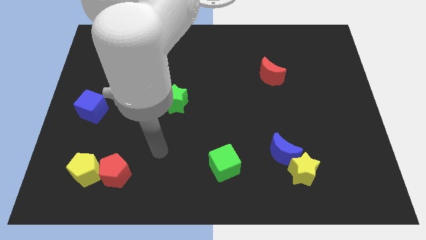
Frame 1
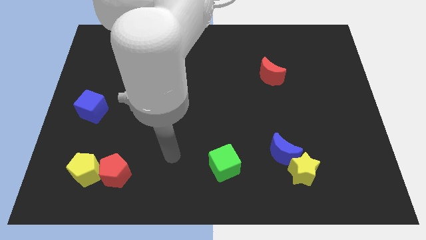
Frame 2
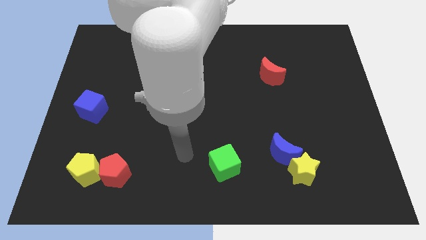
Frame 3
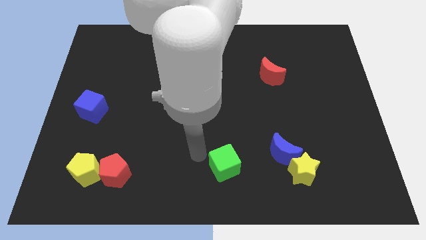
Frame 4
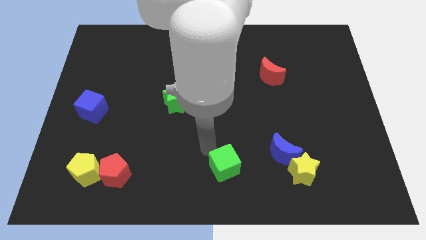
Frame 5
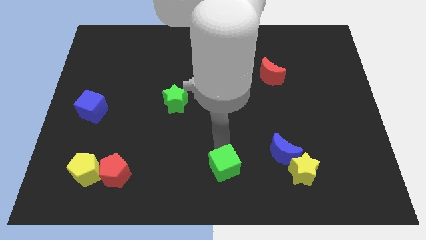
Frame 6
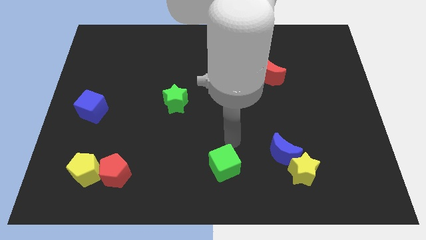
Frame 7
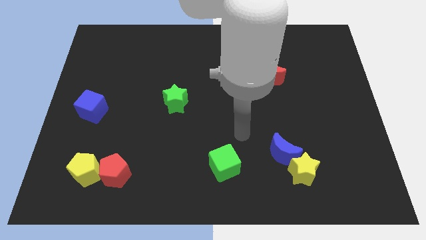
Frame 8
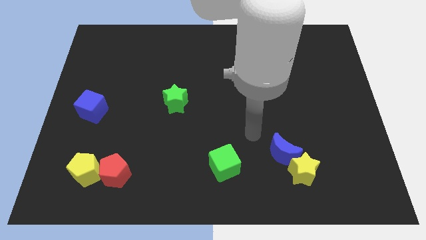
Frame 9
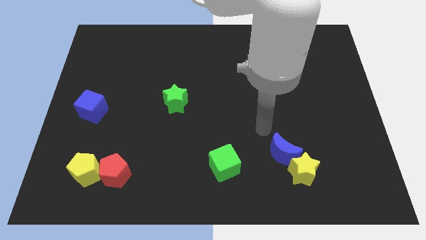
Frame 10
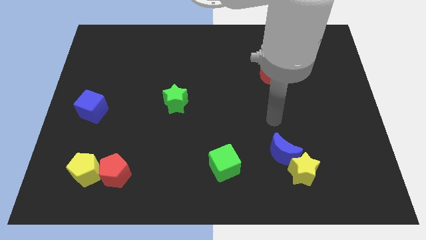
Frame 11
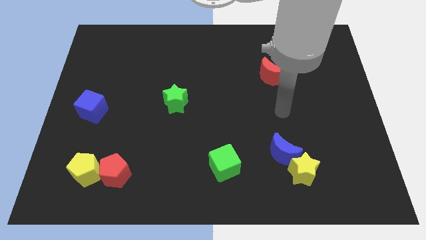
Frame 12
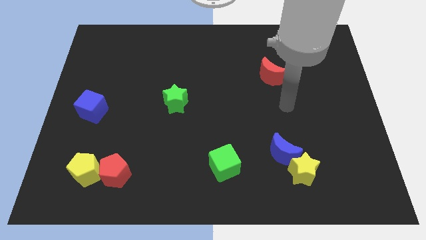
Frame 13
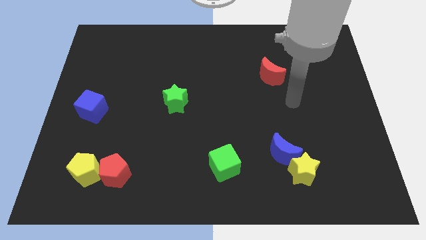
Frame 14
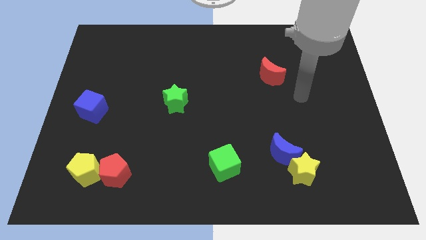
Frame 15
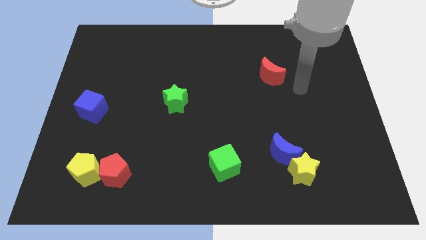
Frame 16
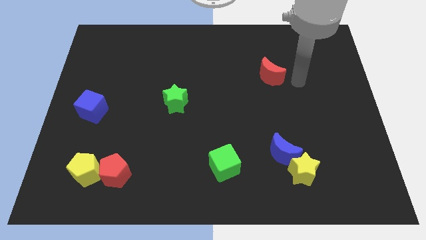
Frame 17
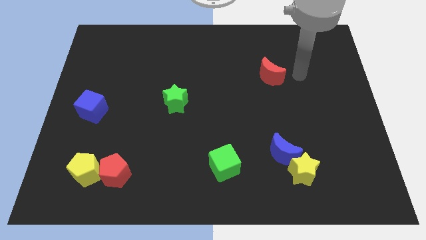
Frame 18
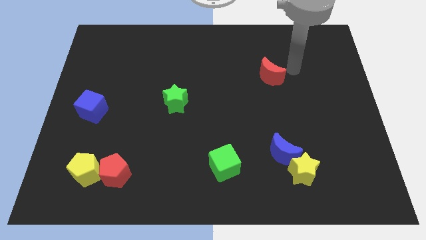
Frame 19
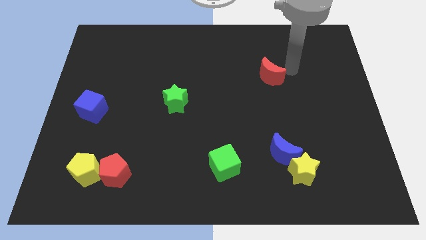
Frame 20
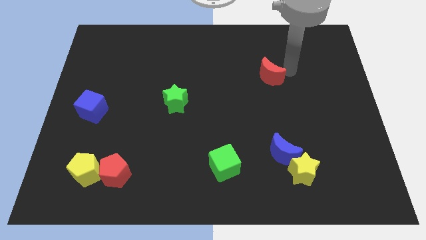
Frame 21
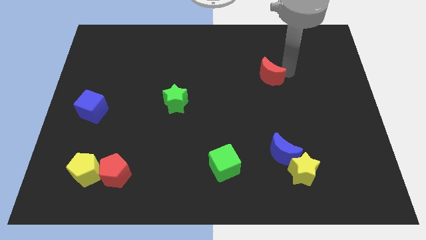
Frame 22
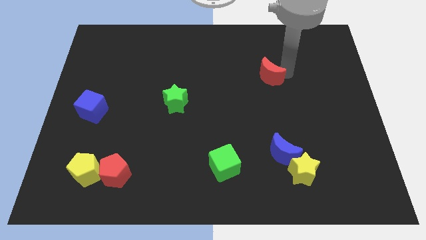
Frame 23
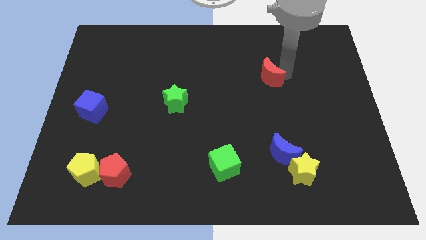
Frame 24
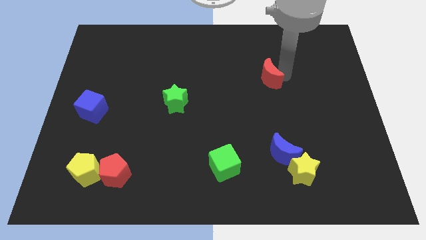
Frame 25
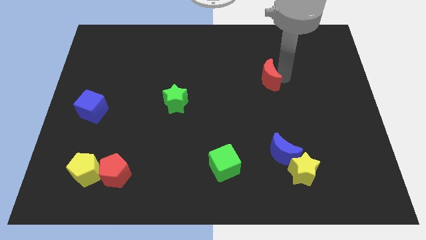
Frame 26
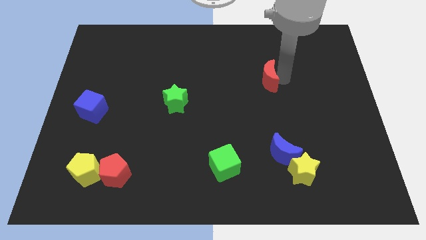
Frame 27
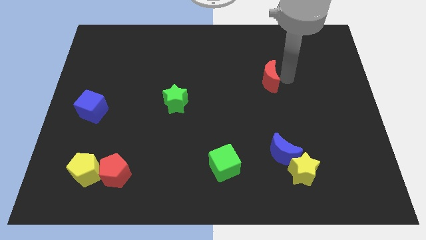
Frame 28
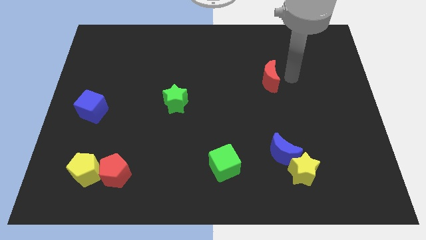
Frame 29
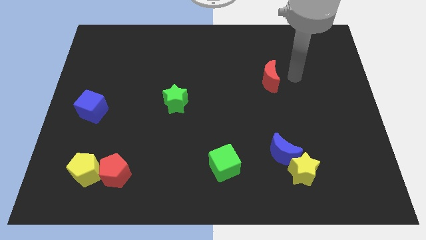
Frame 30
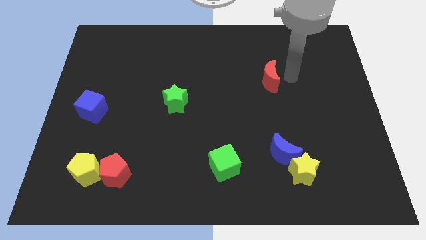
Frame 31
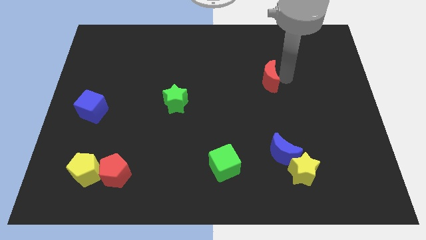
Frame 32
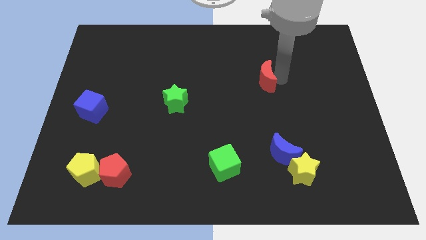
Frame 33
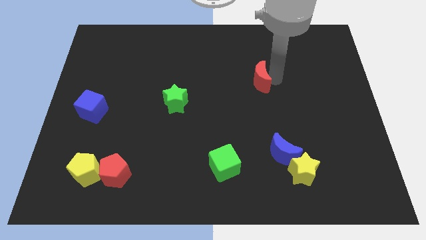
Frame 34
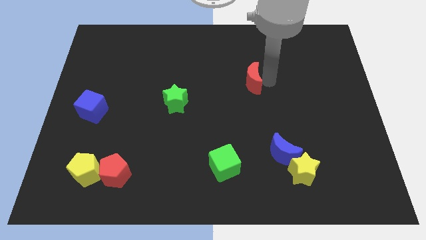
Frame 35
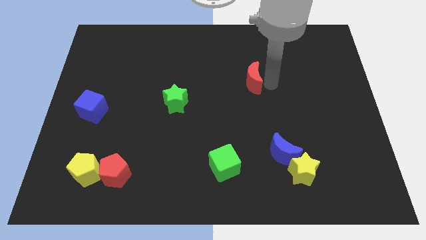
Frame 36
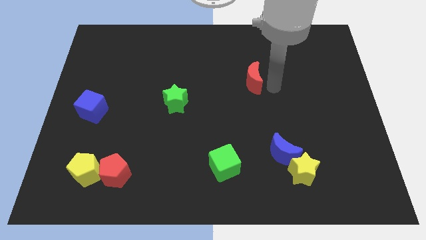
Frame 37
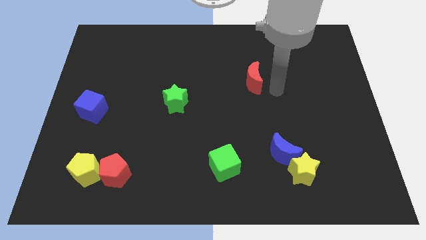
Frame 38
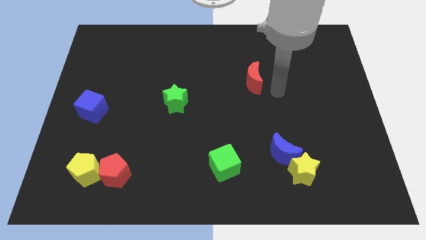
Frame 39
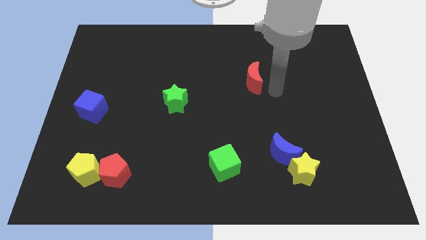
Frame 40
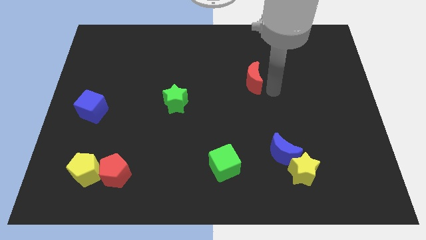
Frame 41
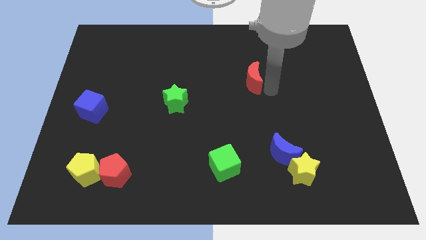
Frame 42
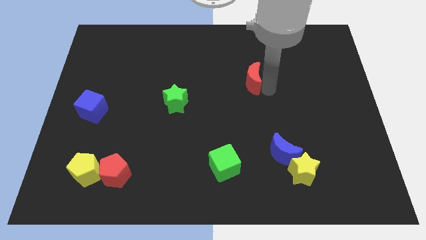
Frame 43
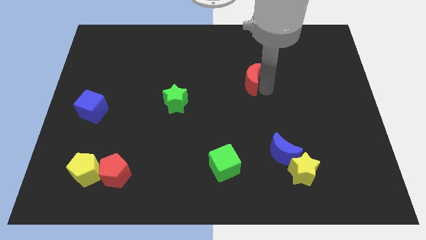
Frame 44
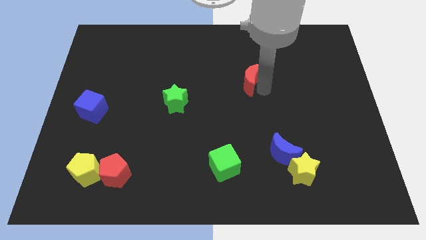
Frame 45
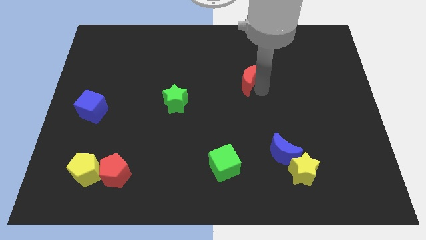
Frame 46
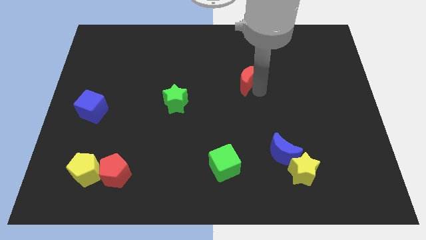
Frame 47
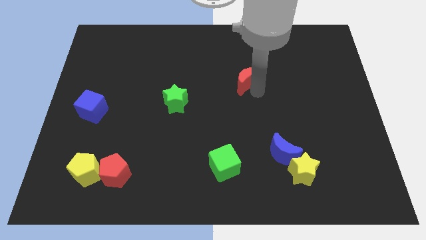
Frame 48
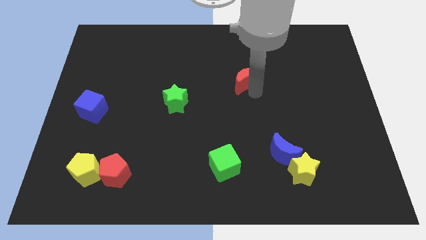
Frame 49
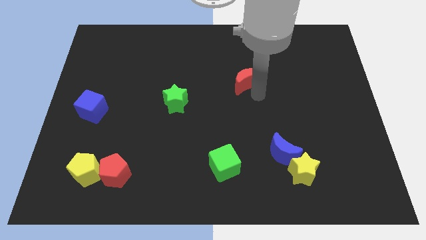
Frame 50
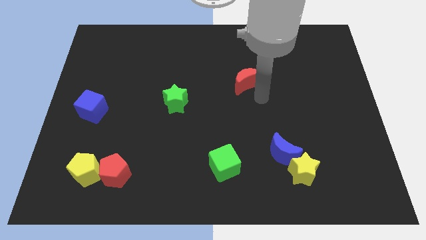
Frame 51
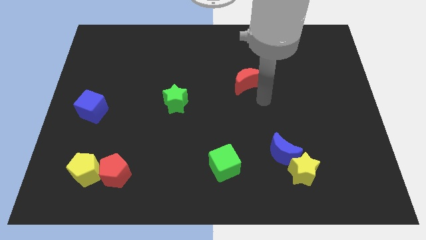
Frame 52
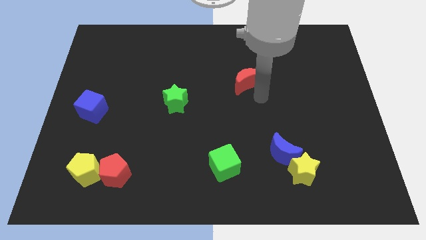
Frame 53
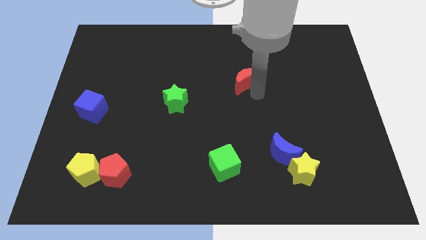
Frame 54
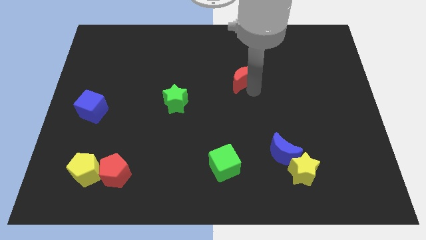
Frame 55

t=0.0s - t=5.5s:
move the red moon slightly left

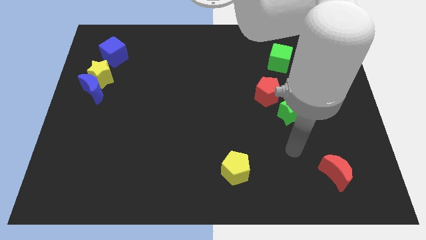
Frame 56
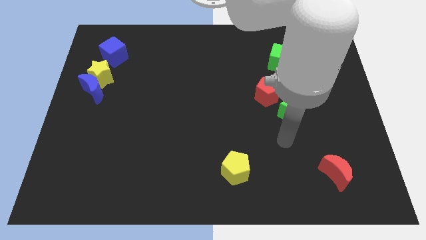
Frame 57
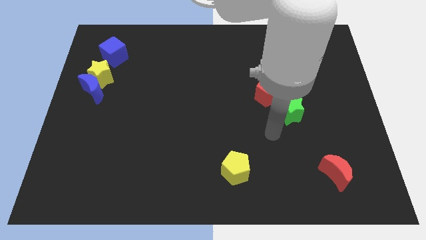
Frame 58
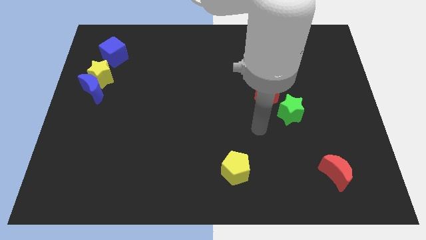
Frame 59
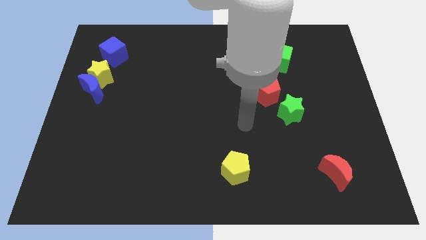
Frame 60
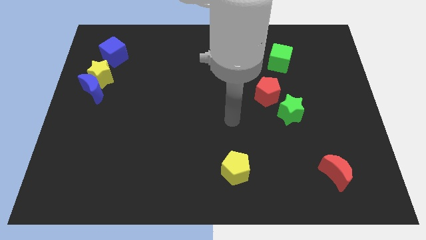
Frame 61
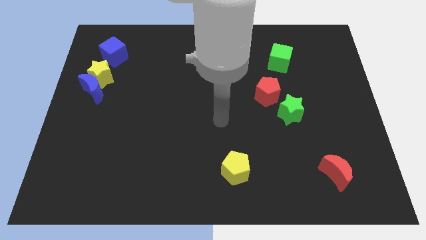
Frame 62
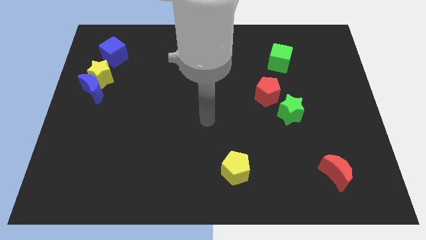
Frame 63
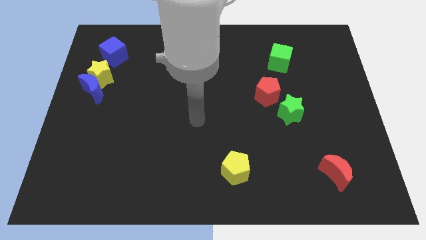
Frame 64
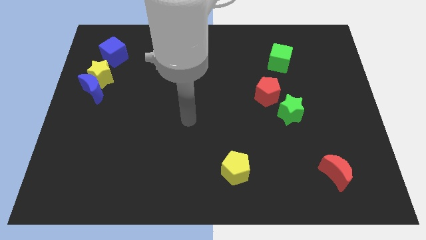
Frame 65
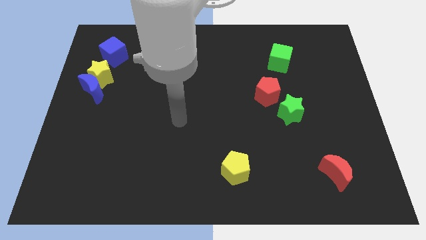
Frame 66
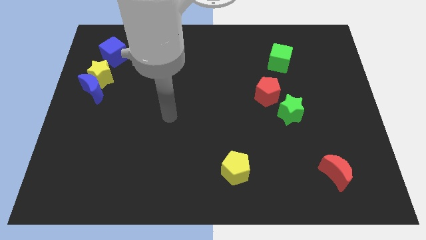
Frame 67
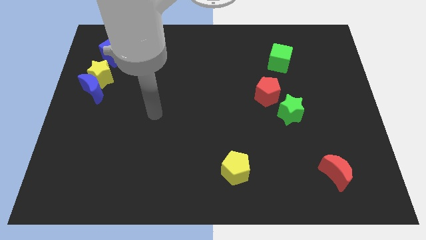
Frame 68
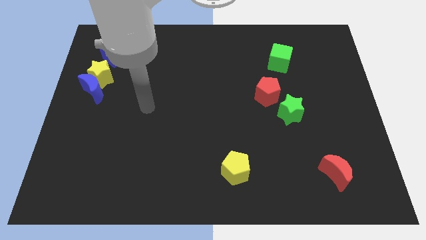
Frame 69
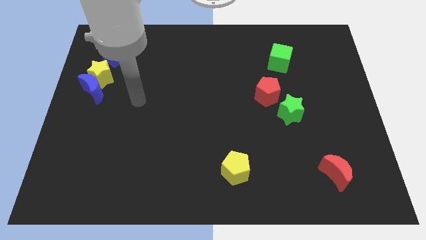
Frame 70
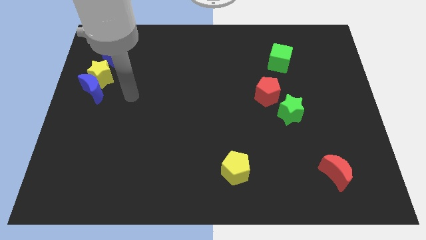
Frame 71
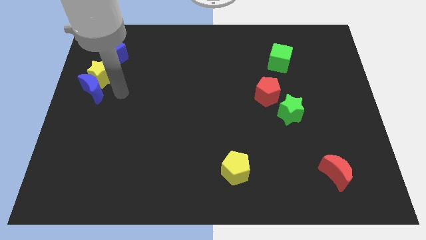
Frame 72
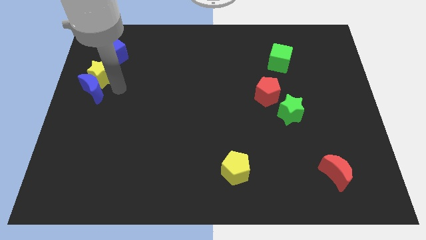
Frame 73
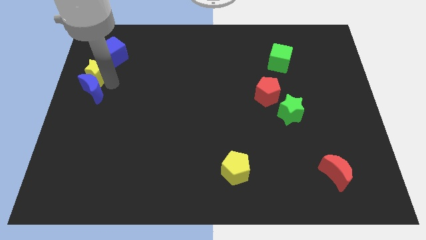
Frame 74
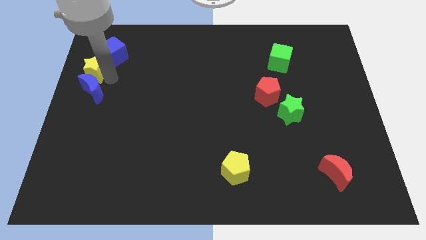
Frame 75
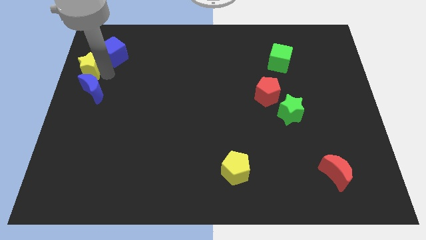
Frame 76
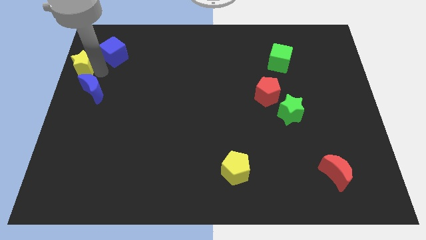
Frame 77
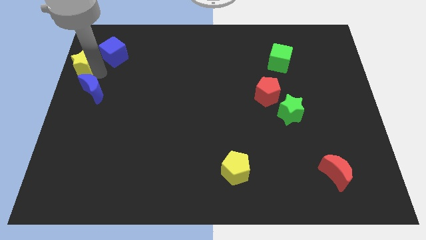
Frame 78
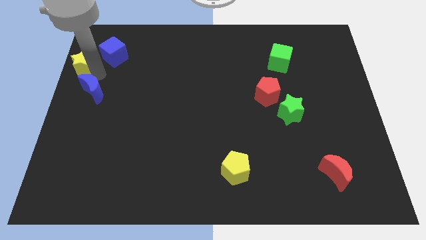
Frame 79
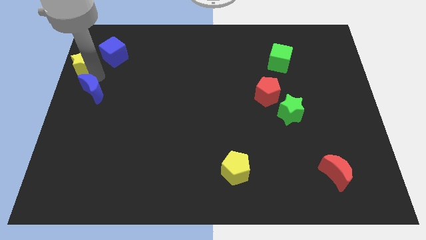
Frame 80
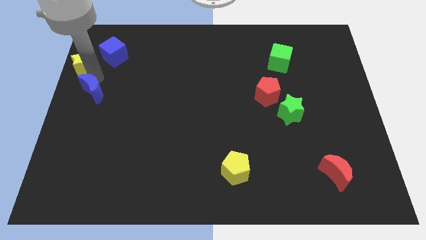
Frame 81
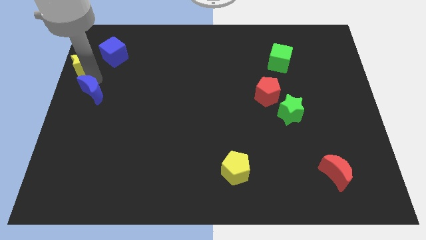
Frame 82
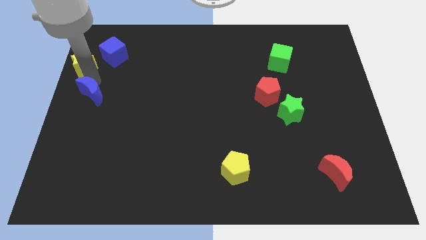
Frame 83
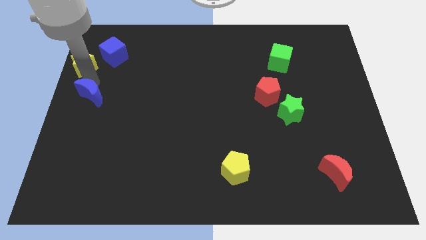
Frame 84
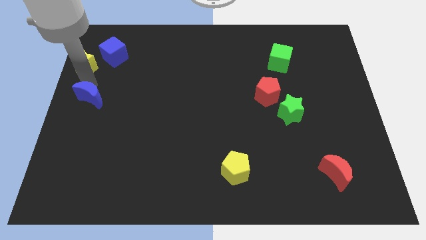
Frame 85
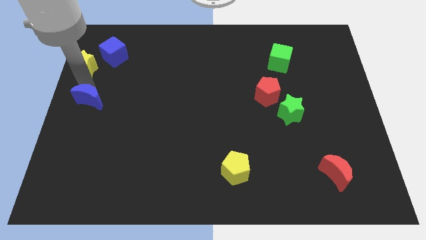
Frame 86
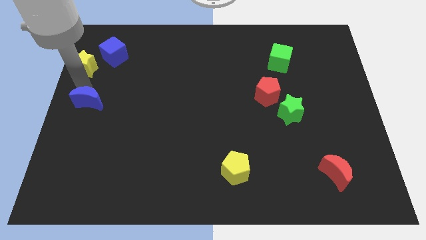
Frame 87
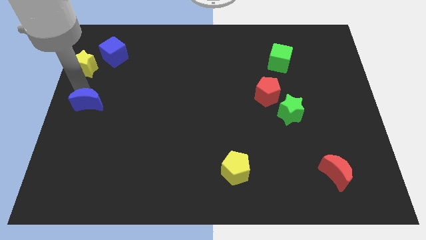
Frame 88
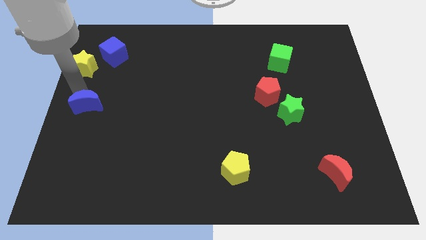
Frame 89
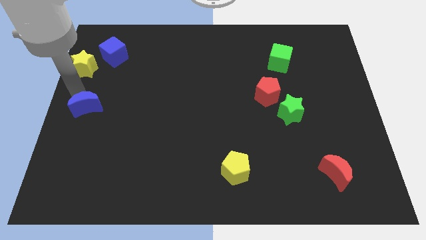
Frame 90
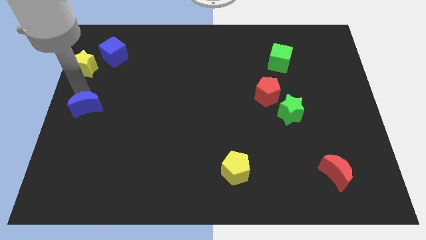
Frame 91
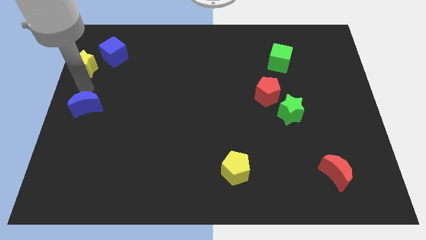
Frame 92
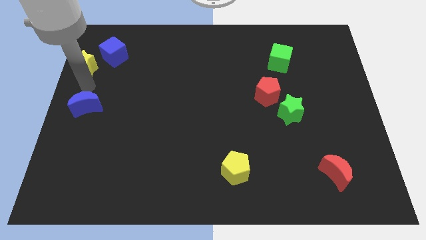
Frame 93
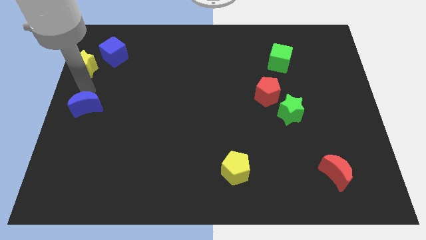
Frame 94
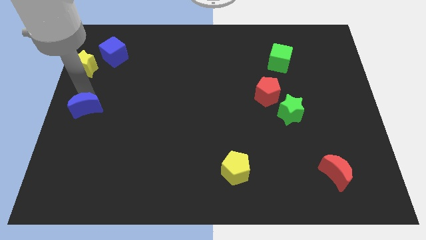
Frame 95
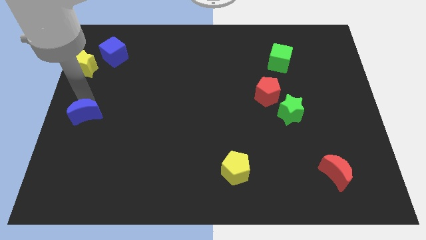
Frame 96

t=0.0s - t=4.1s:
slightly push the blue moon downwards
